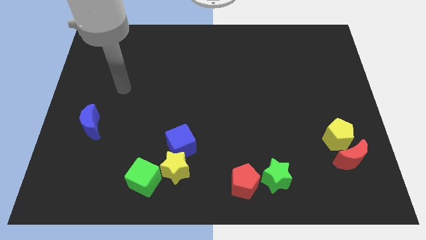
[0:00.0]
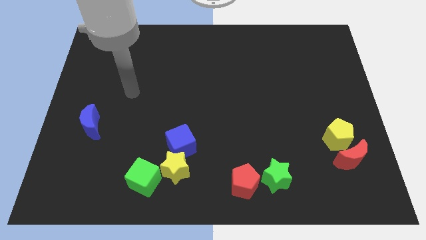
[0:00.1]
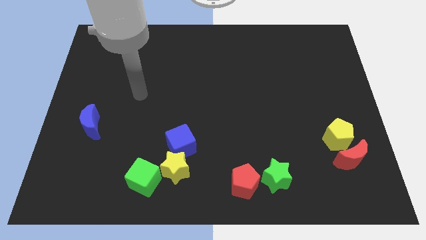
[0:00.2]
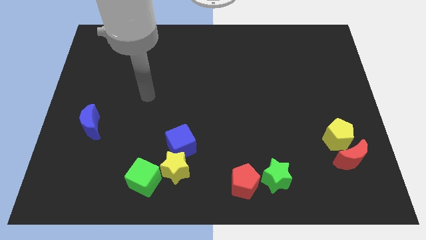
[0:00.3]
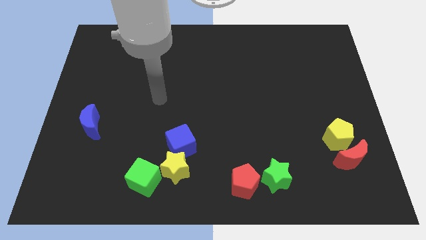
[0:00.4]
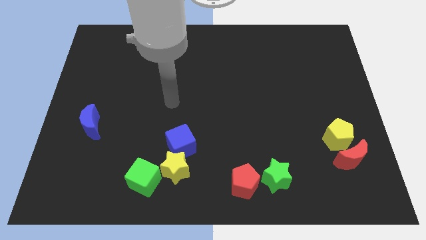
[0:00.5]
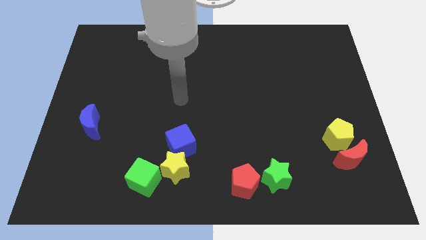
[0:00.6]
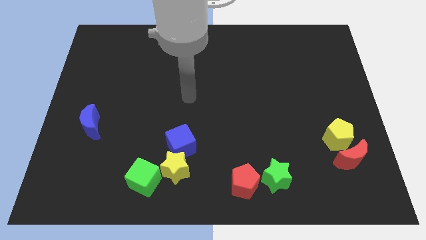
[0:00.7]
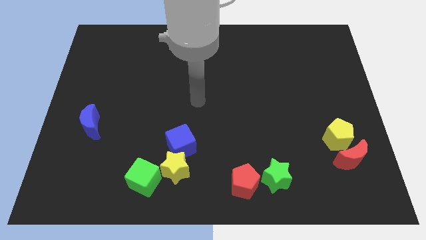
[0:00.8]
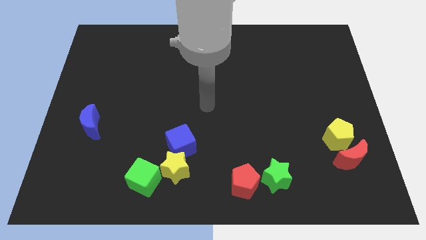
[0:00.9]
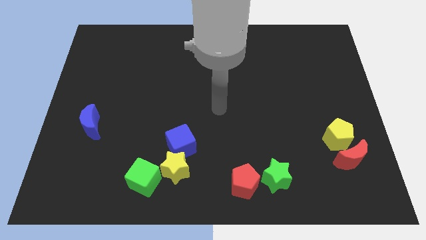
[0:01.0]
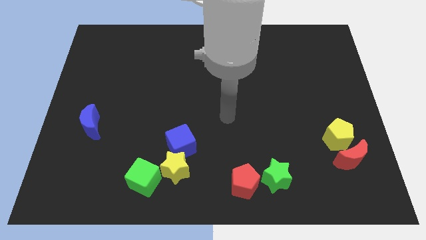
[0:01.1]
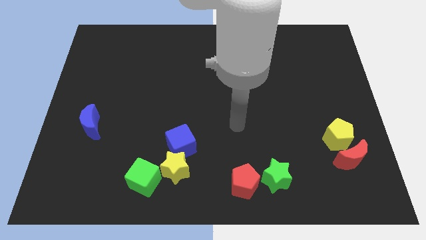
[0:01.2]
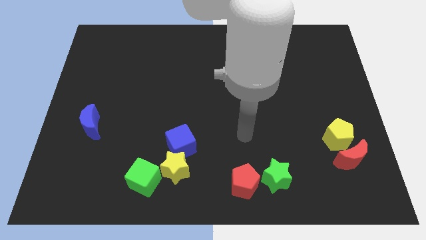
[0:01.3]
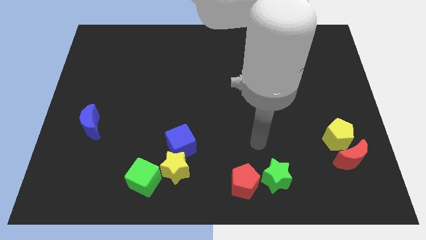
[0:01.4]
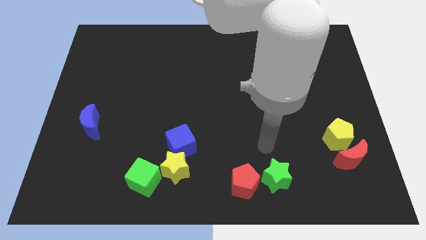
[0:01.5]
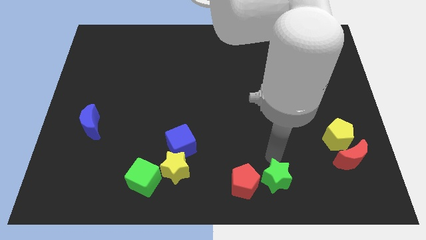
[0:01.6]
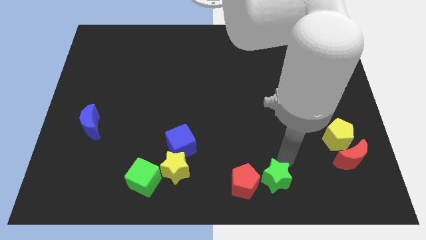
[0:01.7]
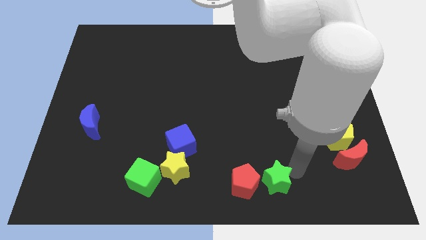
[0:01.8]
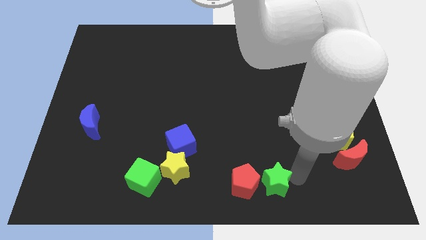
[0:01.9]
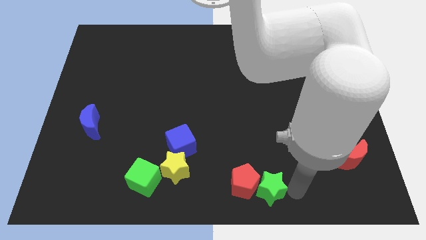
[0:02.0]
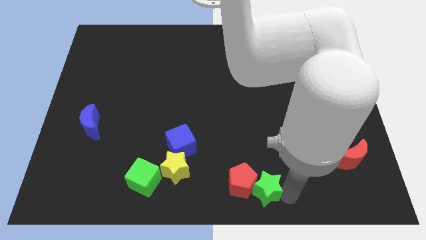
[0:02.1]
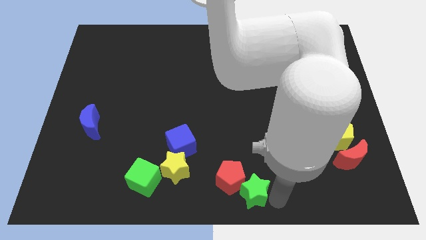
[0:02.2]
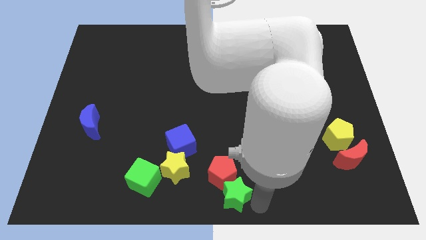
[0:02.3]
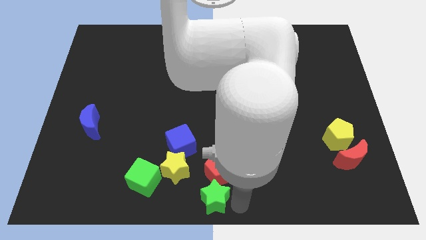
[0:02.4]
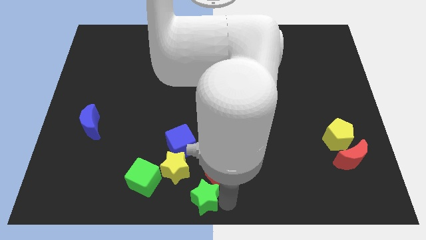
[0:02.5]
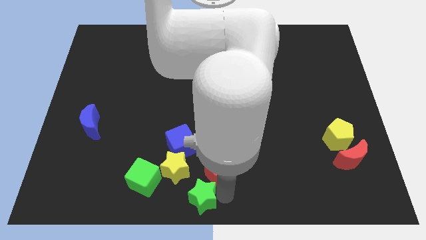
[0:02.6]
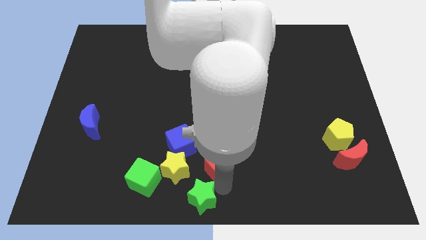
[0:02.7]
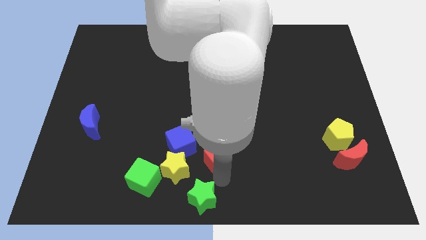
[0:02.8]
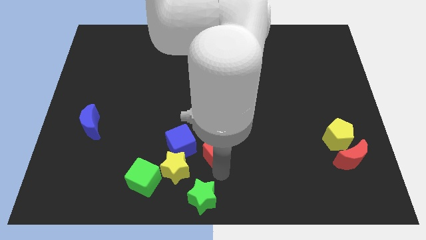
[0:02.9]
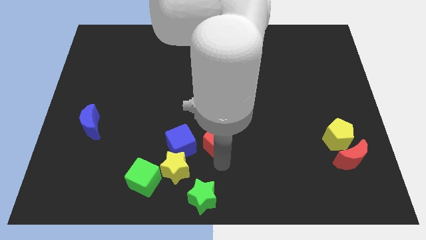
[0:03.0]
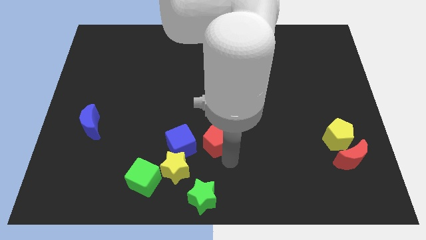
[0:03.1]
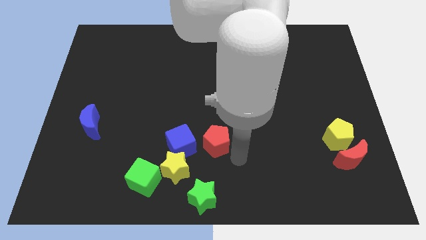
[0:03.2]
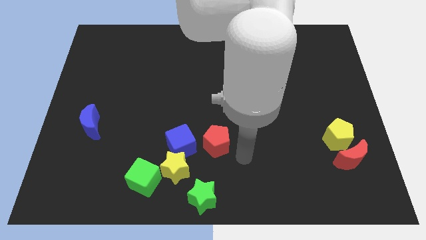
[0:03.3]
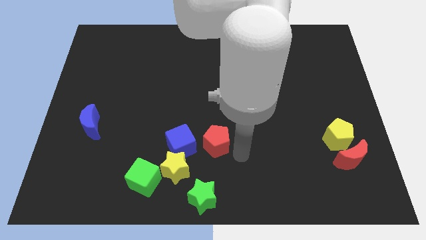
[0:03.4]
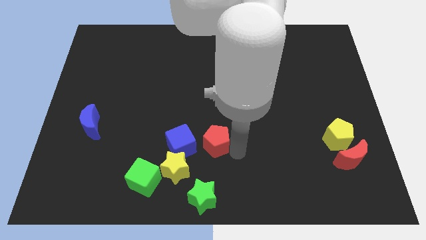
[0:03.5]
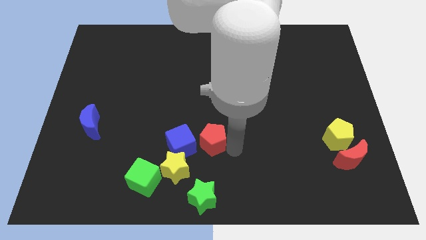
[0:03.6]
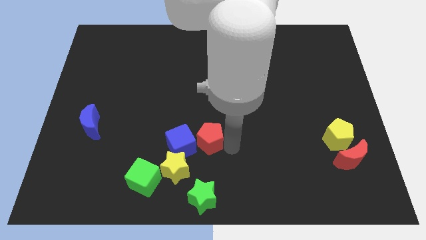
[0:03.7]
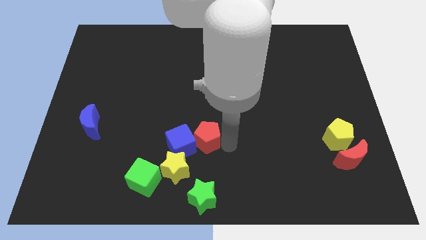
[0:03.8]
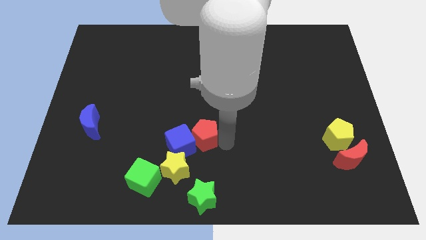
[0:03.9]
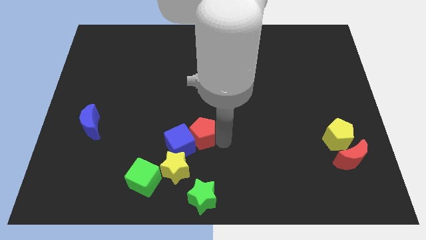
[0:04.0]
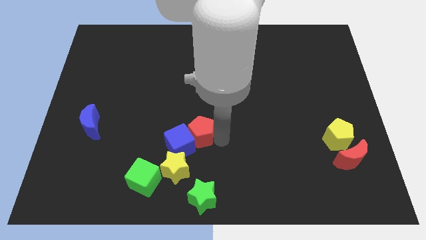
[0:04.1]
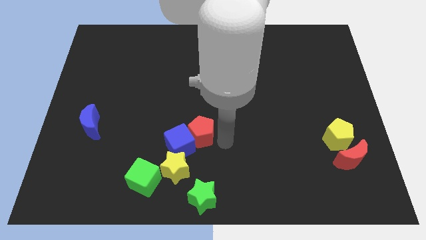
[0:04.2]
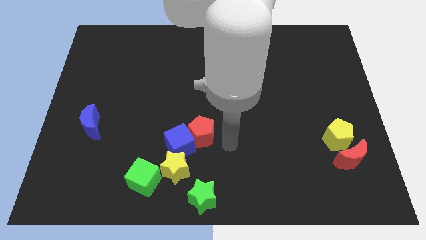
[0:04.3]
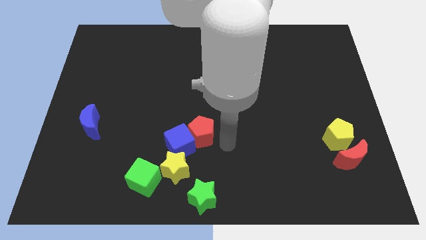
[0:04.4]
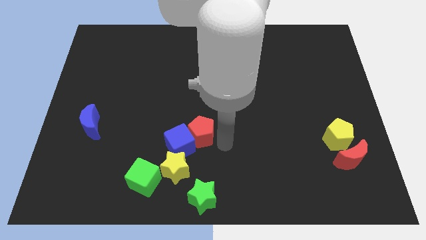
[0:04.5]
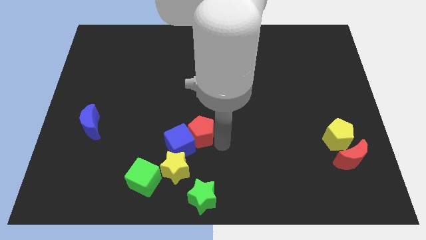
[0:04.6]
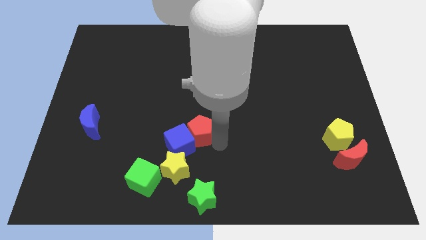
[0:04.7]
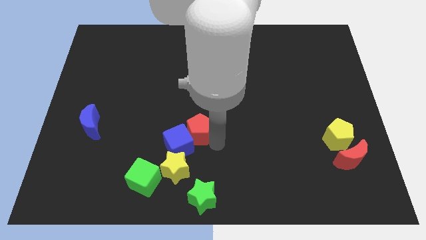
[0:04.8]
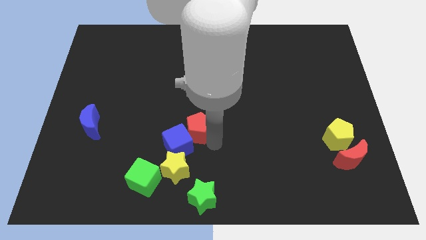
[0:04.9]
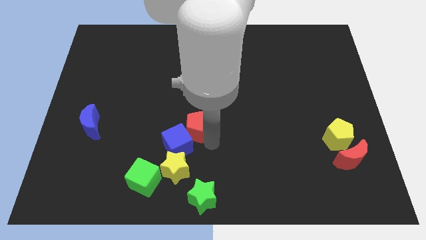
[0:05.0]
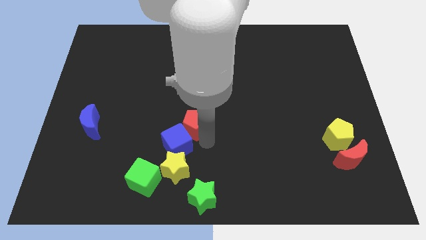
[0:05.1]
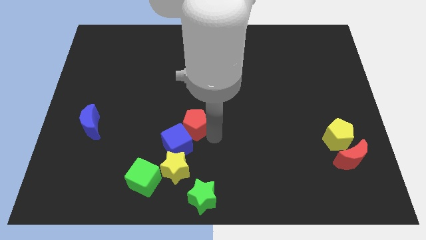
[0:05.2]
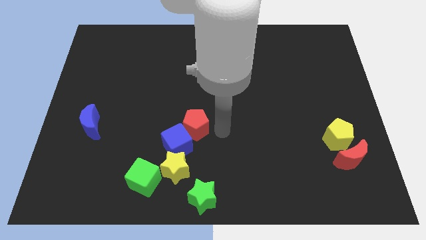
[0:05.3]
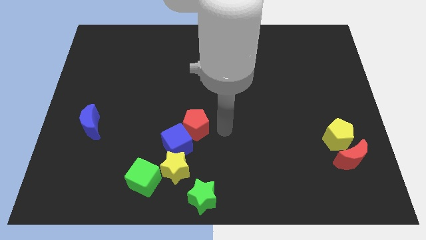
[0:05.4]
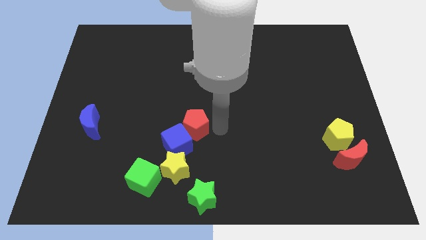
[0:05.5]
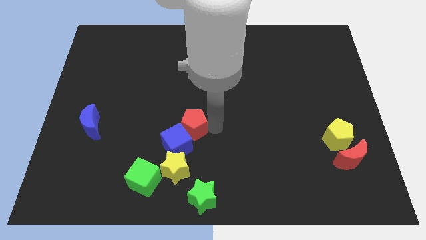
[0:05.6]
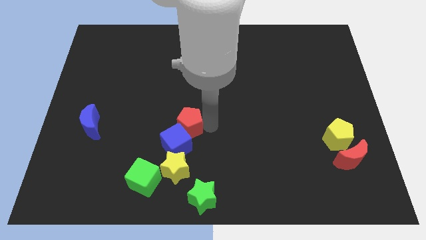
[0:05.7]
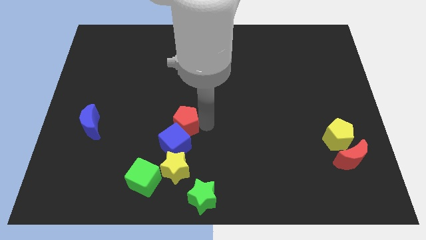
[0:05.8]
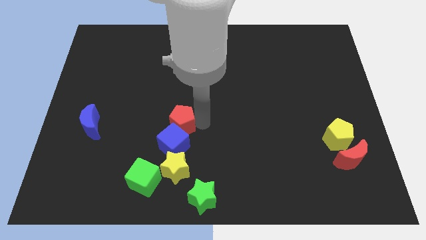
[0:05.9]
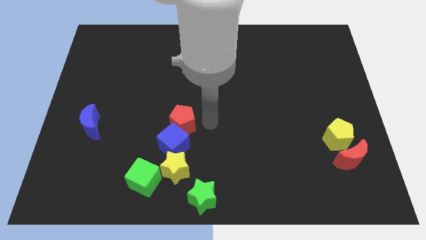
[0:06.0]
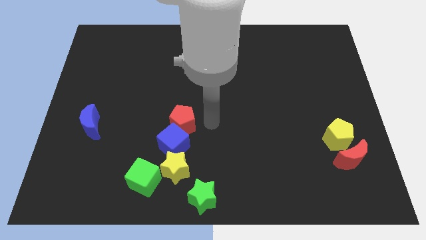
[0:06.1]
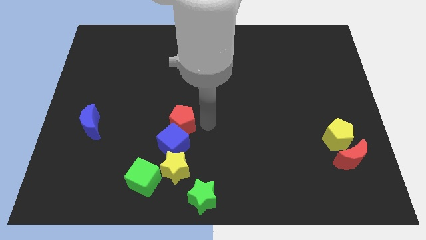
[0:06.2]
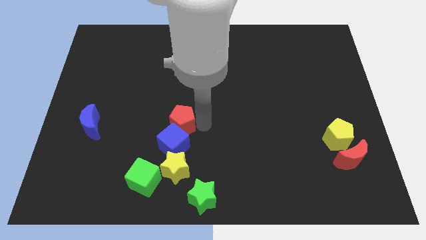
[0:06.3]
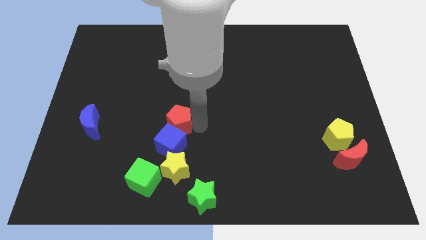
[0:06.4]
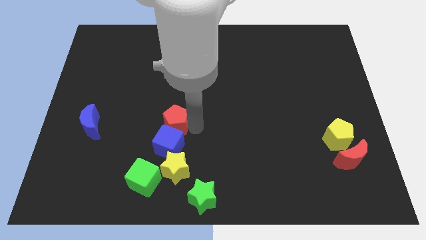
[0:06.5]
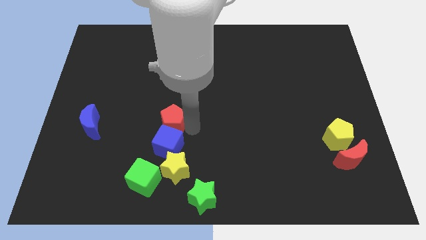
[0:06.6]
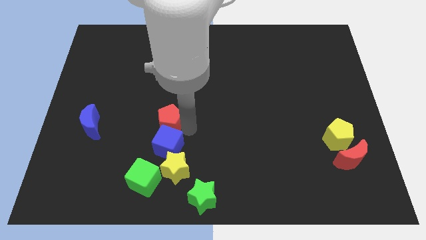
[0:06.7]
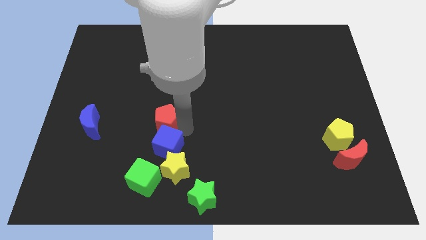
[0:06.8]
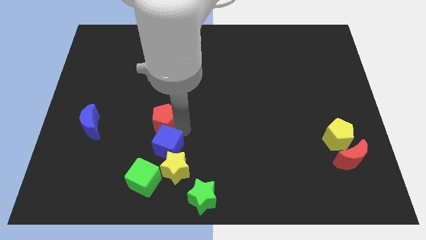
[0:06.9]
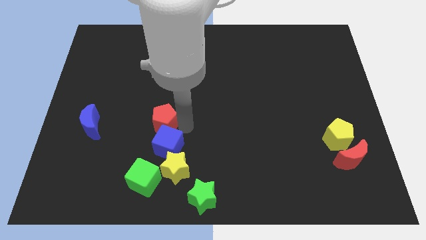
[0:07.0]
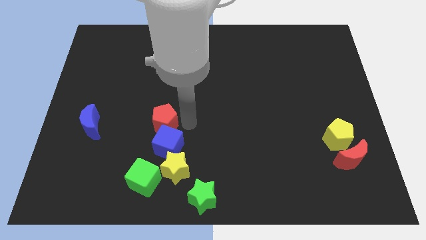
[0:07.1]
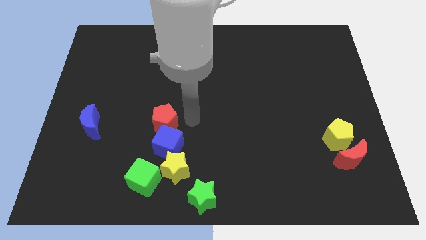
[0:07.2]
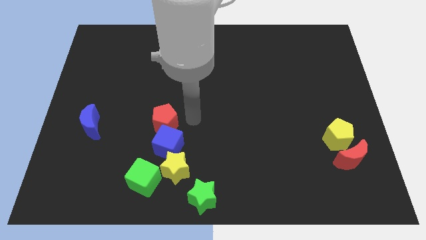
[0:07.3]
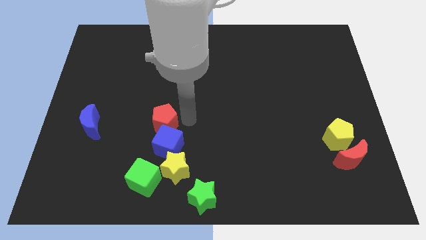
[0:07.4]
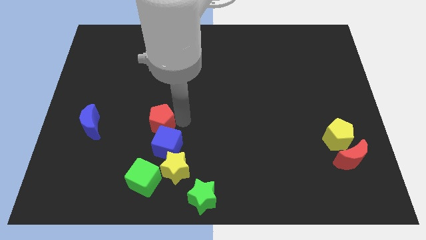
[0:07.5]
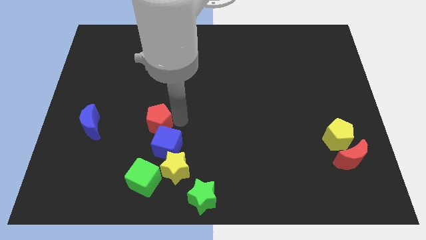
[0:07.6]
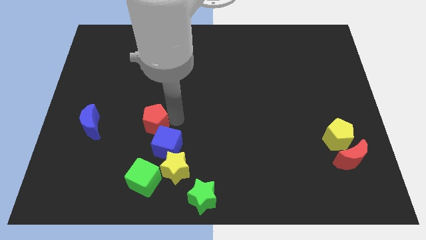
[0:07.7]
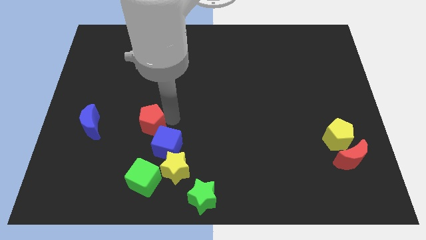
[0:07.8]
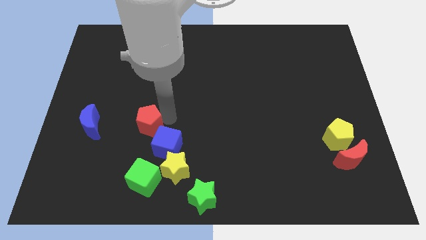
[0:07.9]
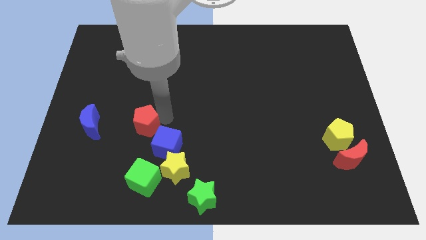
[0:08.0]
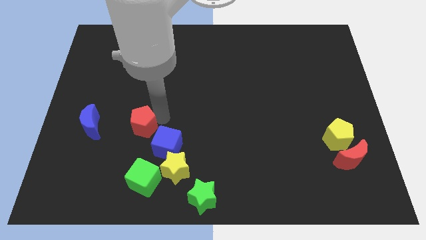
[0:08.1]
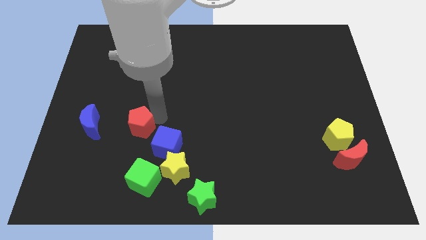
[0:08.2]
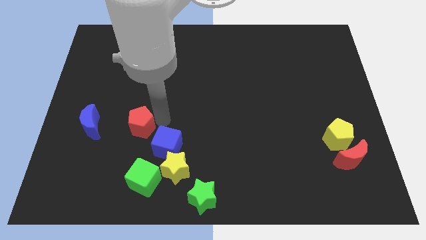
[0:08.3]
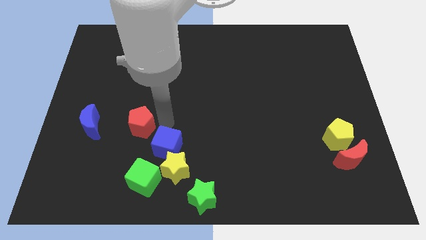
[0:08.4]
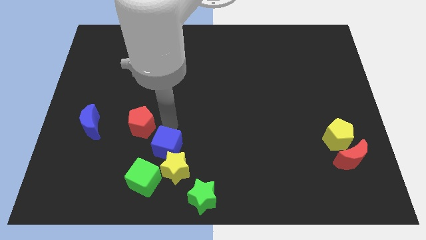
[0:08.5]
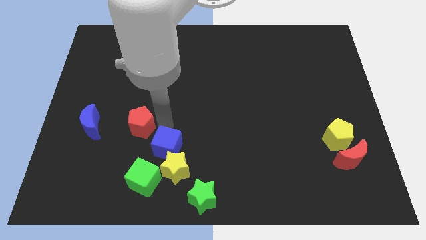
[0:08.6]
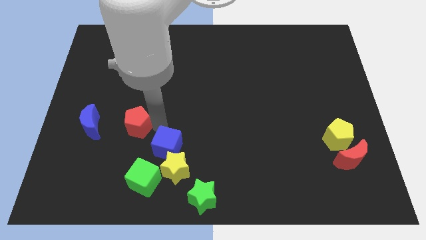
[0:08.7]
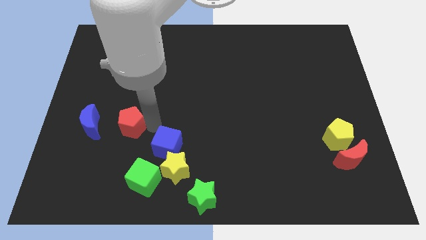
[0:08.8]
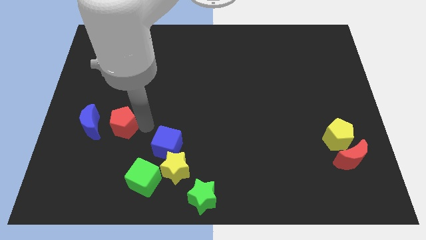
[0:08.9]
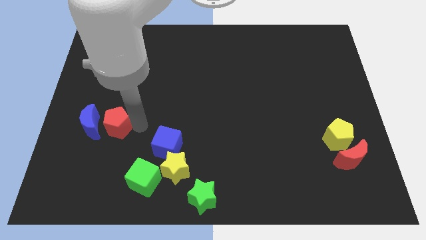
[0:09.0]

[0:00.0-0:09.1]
move the red pentagon next to the blue moon
